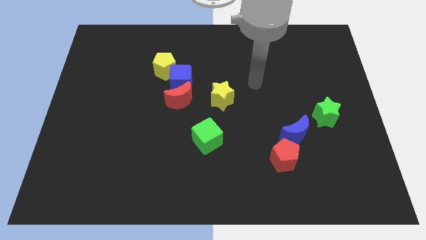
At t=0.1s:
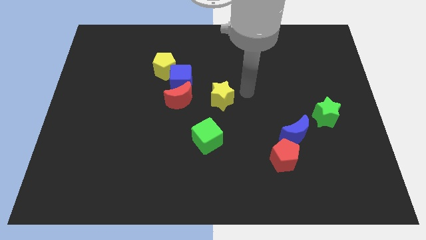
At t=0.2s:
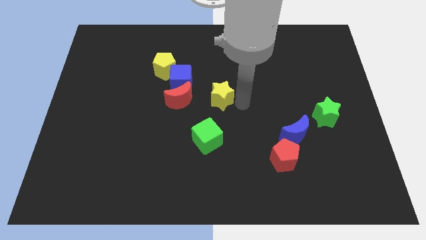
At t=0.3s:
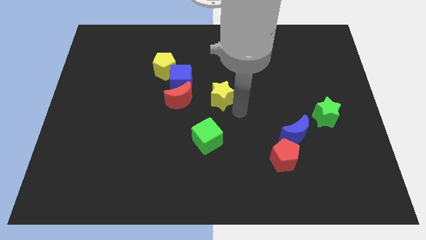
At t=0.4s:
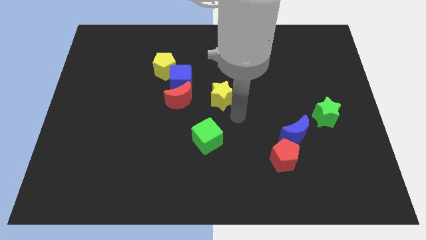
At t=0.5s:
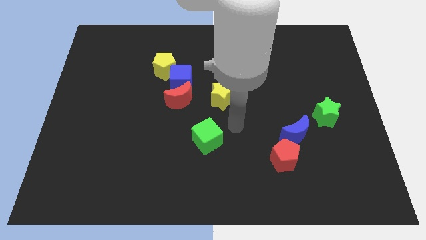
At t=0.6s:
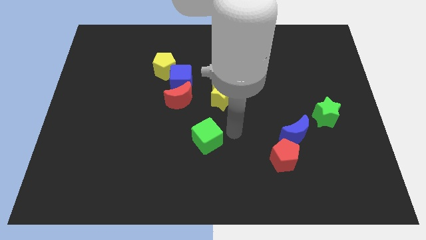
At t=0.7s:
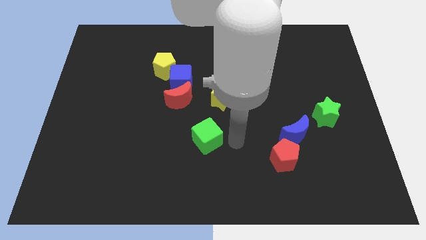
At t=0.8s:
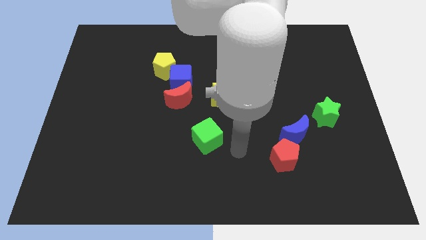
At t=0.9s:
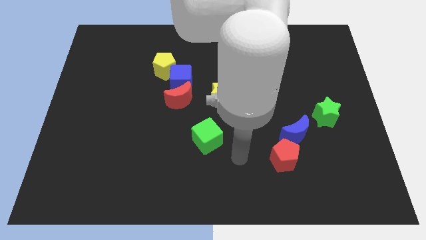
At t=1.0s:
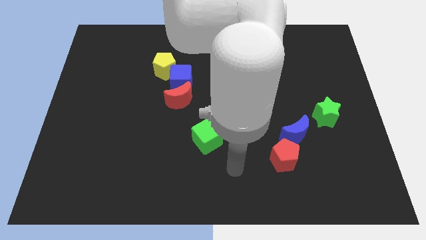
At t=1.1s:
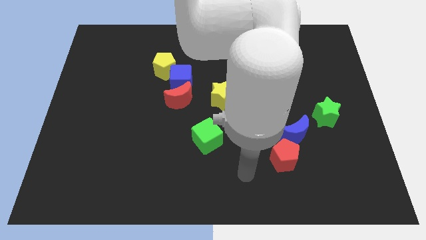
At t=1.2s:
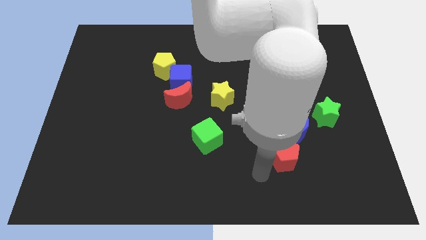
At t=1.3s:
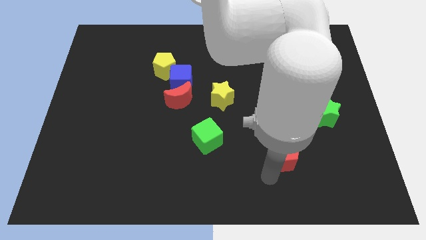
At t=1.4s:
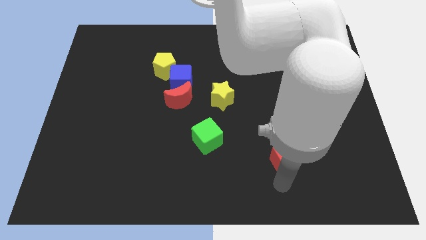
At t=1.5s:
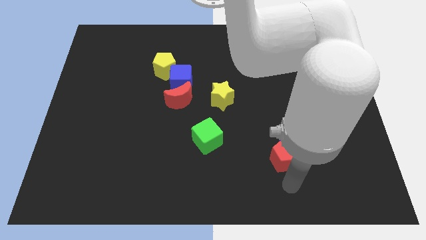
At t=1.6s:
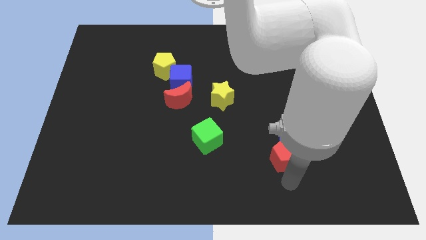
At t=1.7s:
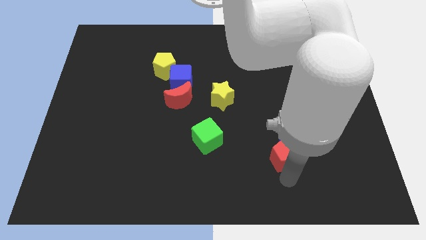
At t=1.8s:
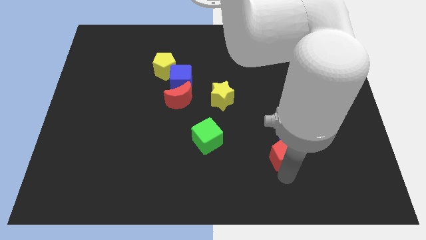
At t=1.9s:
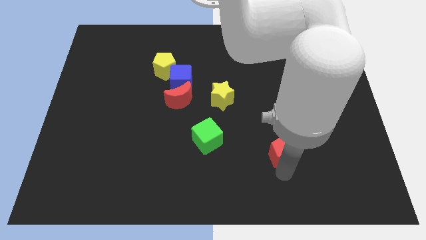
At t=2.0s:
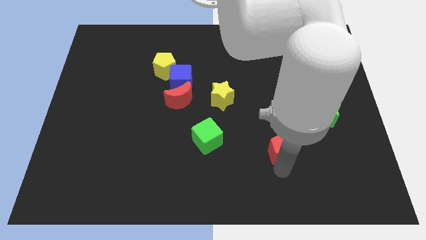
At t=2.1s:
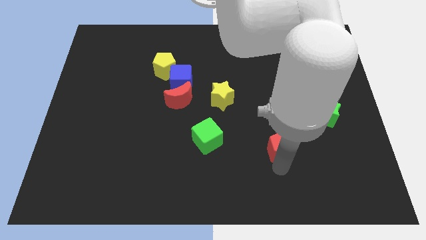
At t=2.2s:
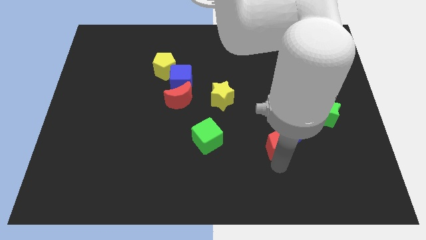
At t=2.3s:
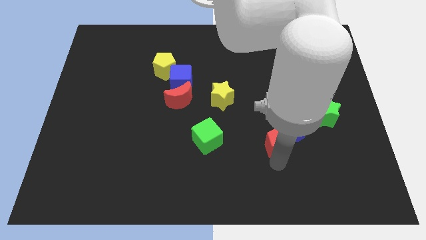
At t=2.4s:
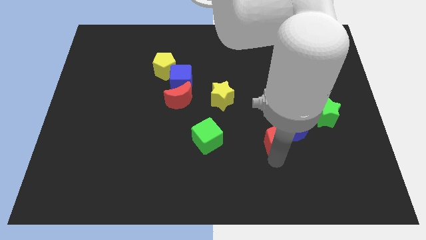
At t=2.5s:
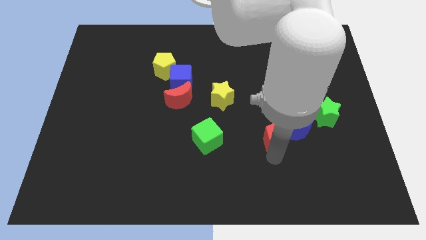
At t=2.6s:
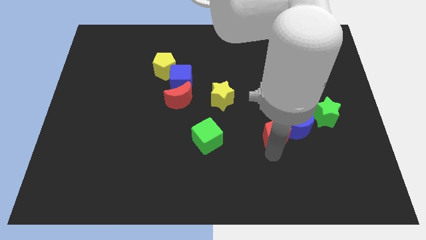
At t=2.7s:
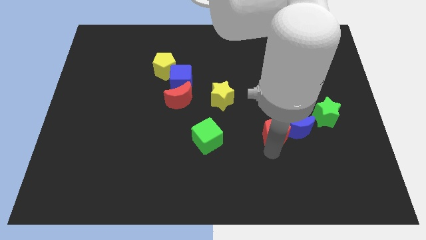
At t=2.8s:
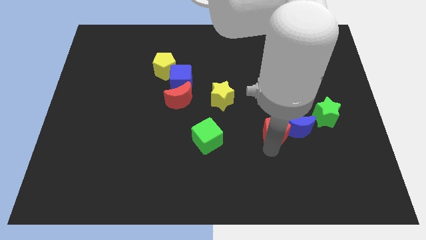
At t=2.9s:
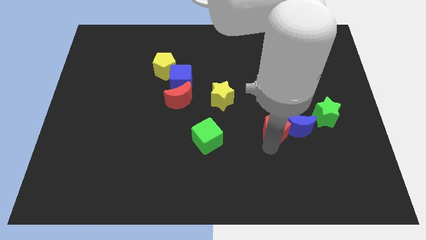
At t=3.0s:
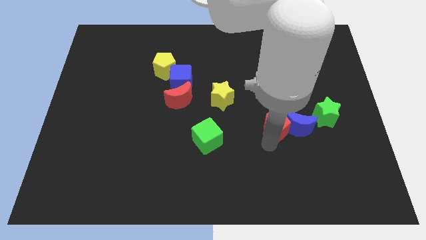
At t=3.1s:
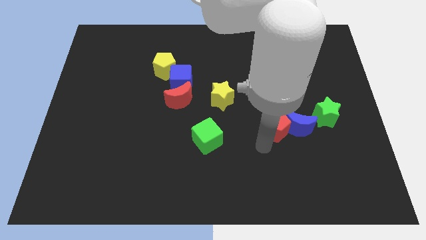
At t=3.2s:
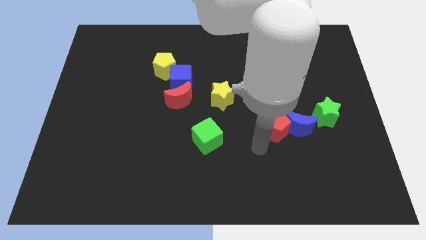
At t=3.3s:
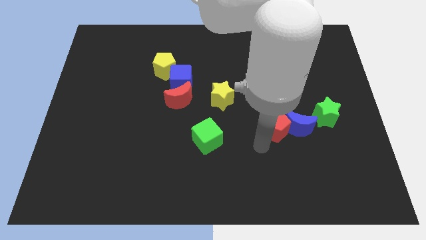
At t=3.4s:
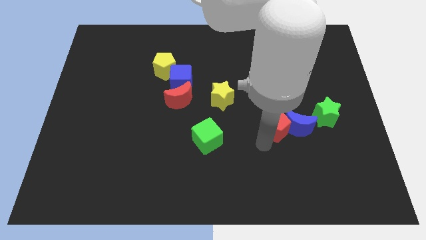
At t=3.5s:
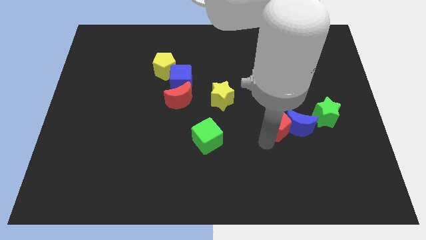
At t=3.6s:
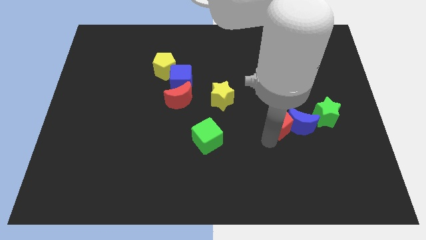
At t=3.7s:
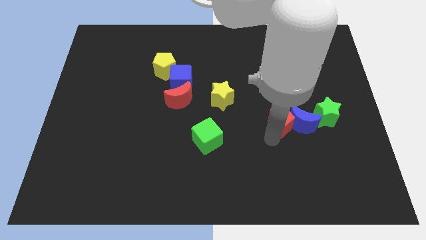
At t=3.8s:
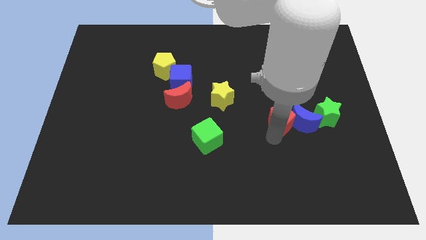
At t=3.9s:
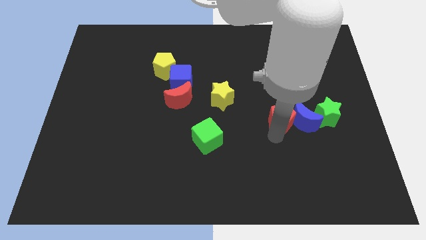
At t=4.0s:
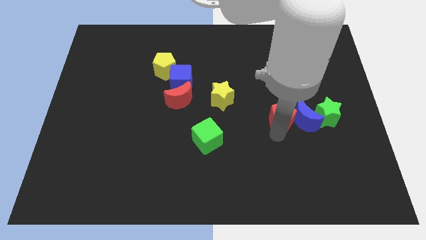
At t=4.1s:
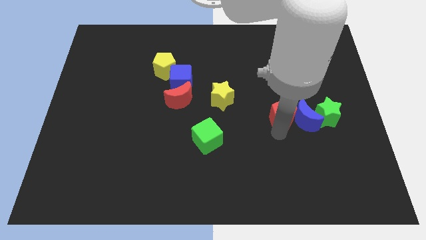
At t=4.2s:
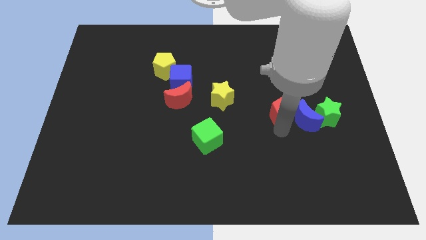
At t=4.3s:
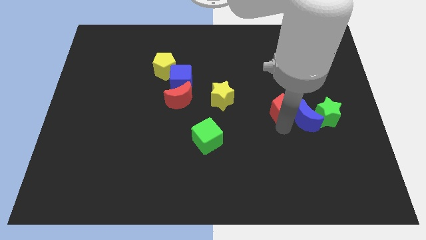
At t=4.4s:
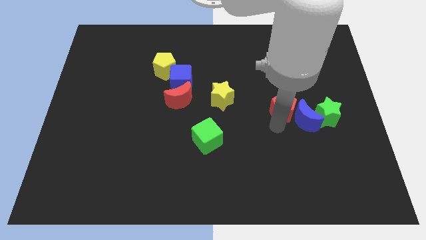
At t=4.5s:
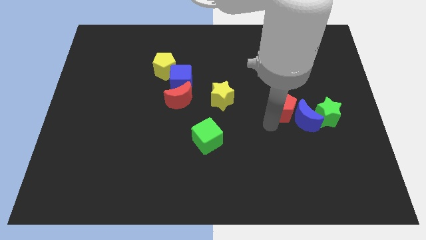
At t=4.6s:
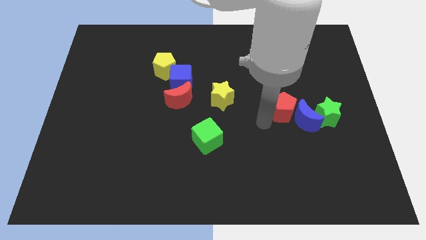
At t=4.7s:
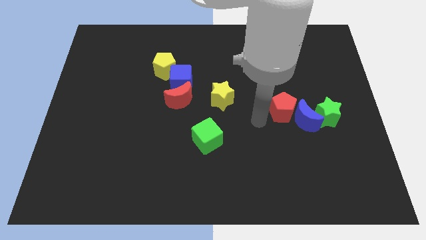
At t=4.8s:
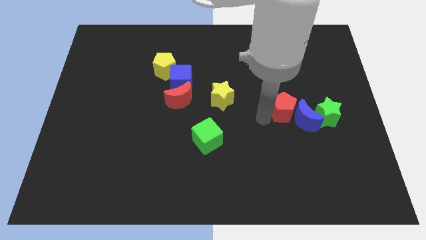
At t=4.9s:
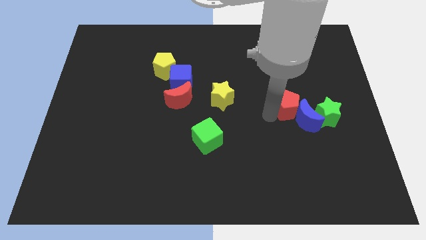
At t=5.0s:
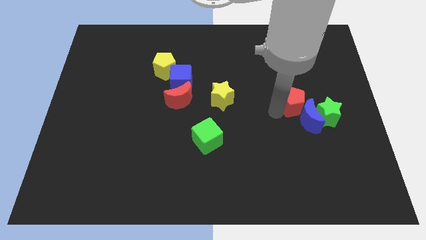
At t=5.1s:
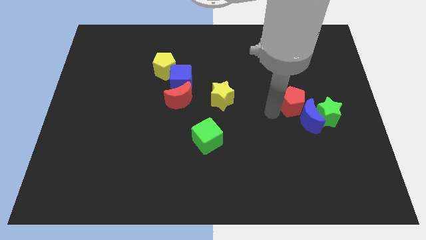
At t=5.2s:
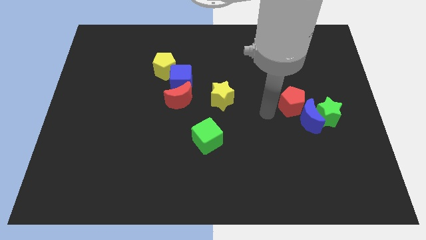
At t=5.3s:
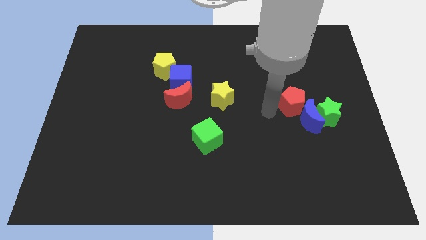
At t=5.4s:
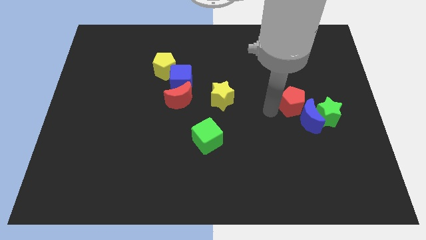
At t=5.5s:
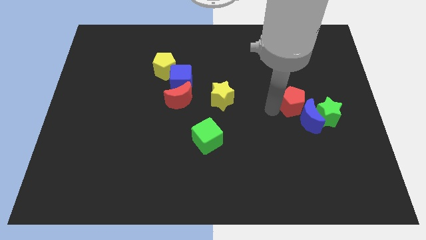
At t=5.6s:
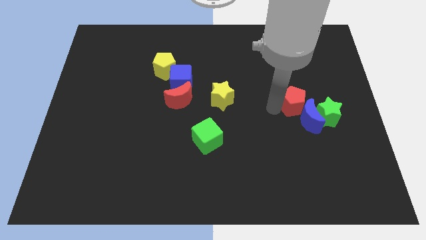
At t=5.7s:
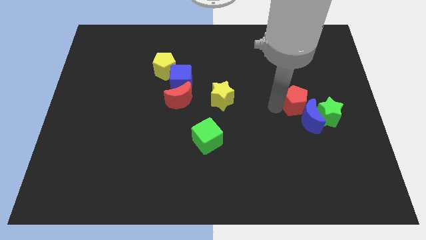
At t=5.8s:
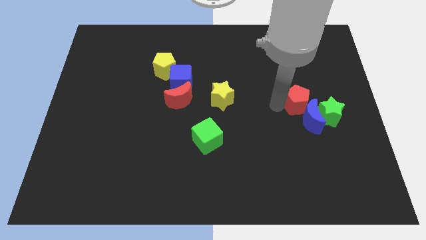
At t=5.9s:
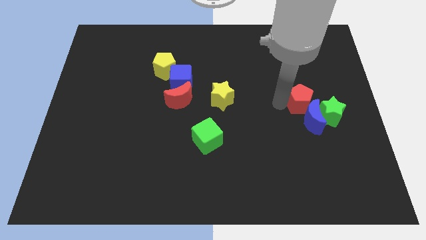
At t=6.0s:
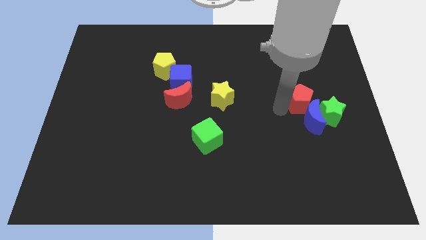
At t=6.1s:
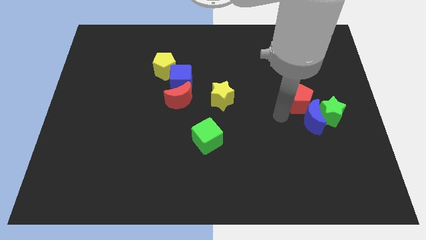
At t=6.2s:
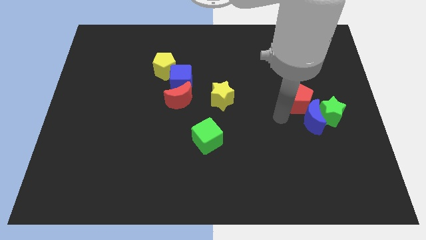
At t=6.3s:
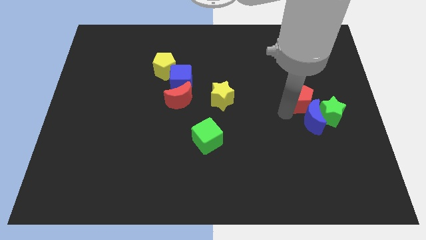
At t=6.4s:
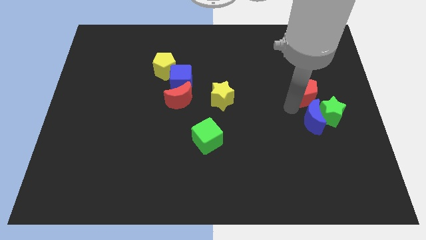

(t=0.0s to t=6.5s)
push the red pentagon to the top side of the green star

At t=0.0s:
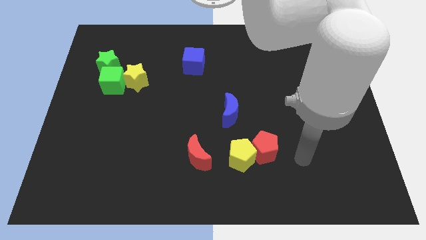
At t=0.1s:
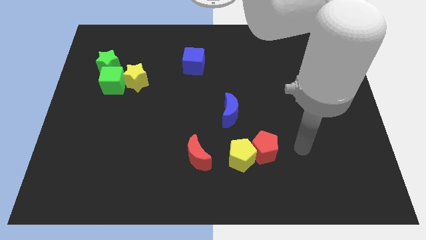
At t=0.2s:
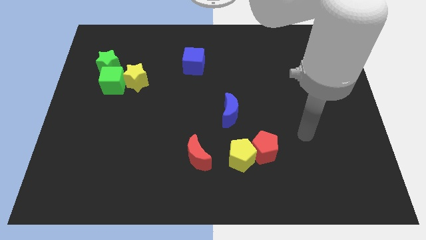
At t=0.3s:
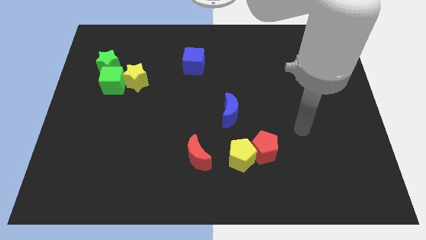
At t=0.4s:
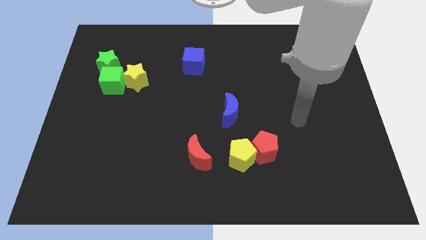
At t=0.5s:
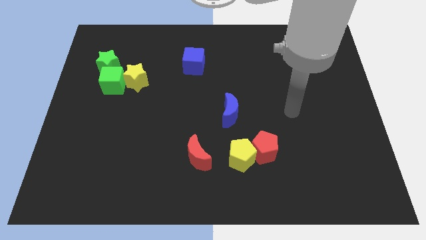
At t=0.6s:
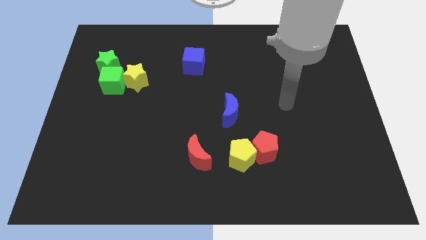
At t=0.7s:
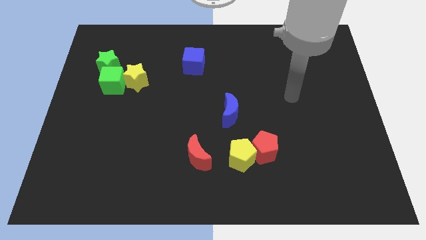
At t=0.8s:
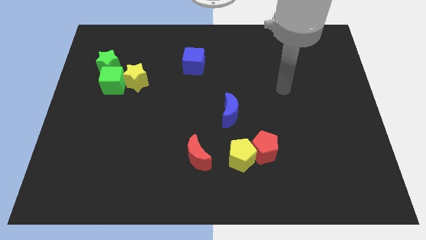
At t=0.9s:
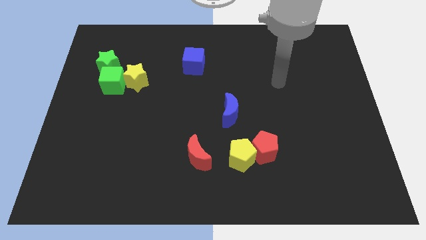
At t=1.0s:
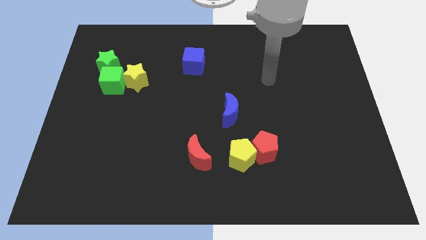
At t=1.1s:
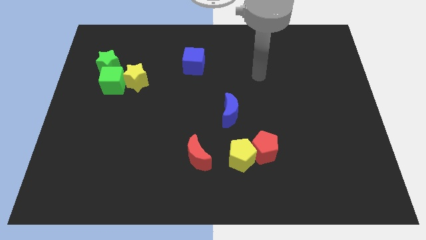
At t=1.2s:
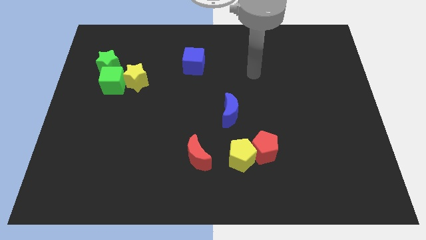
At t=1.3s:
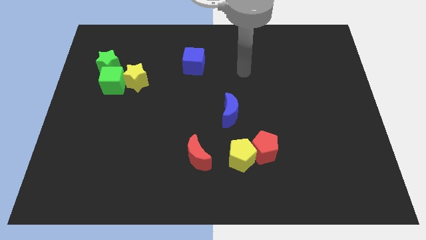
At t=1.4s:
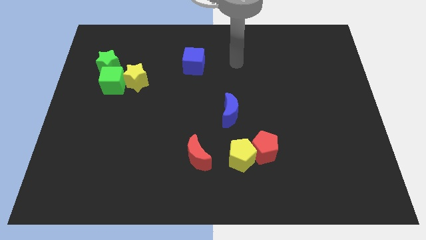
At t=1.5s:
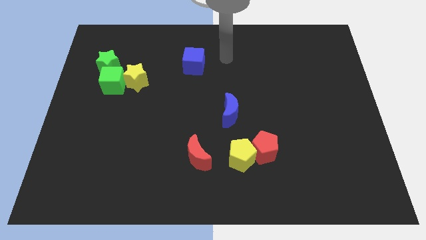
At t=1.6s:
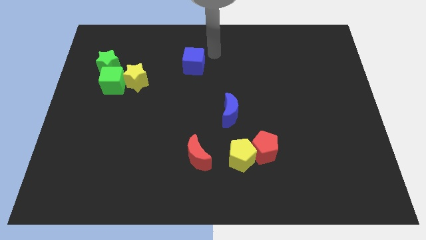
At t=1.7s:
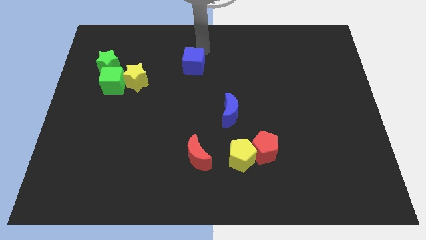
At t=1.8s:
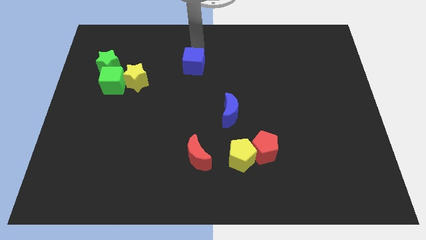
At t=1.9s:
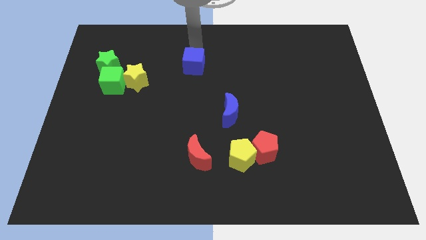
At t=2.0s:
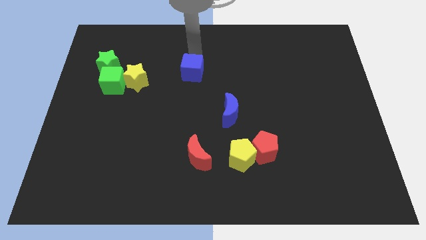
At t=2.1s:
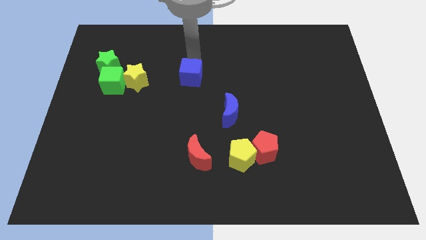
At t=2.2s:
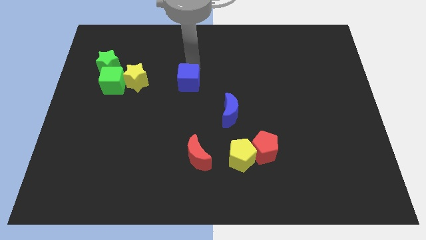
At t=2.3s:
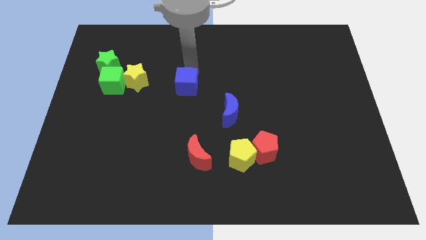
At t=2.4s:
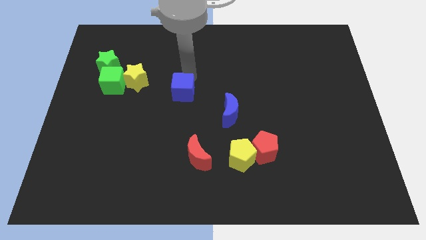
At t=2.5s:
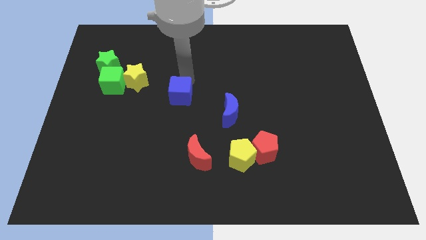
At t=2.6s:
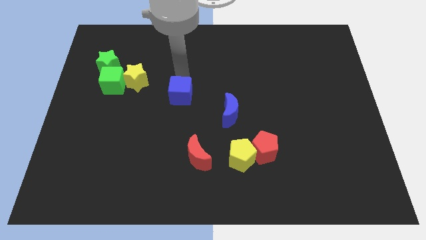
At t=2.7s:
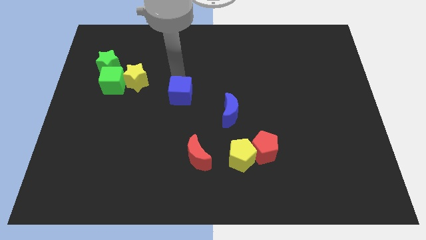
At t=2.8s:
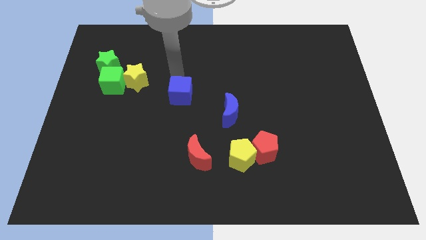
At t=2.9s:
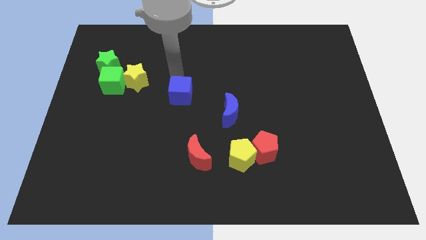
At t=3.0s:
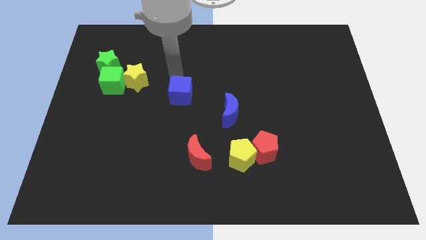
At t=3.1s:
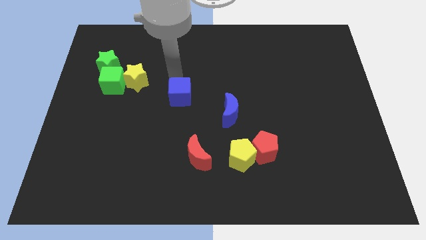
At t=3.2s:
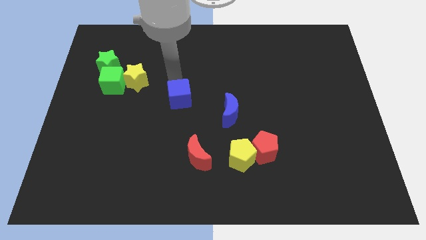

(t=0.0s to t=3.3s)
push the blue cube to the left side of the blue moon
